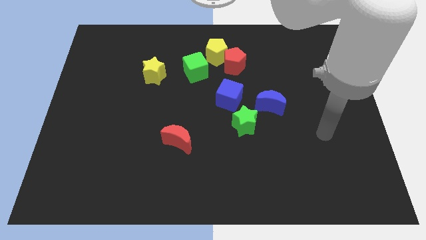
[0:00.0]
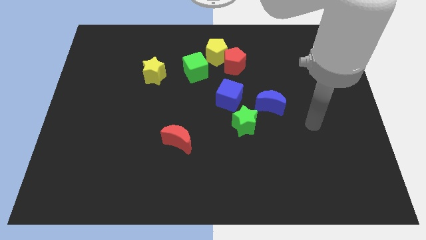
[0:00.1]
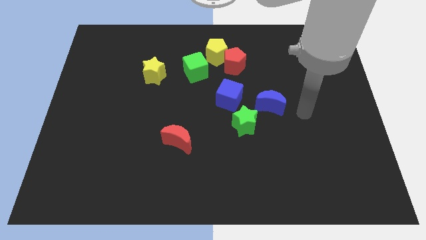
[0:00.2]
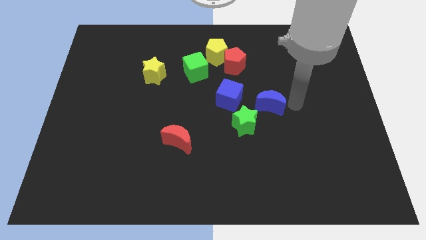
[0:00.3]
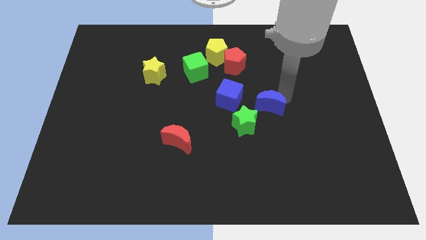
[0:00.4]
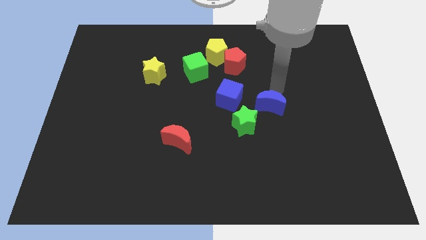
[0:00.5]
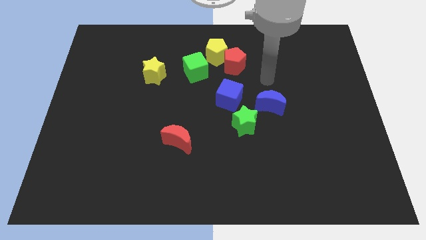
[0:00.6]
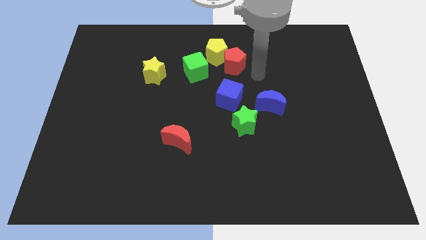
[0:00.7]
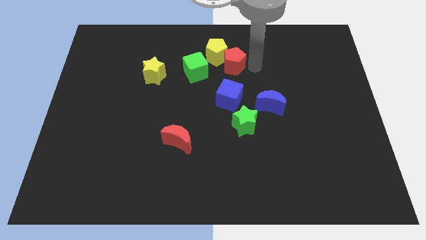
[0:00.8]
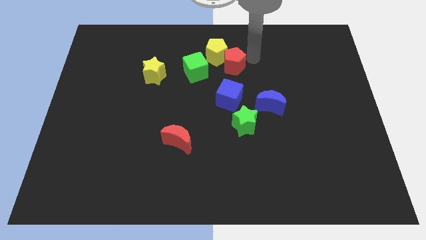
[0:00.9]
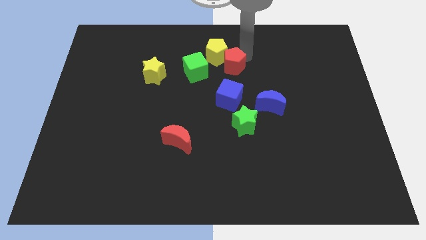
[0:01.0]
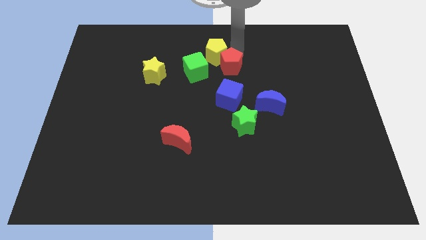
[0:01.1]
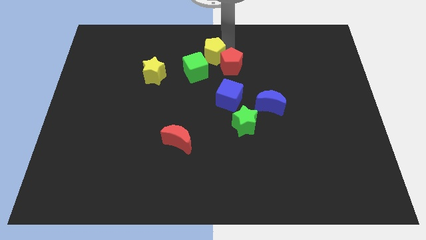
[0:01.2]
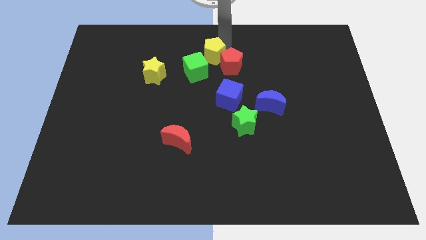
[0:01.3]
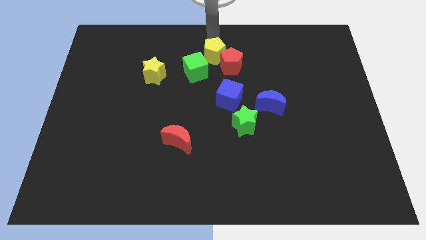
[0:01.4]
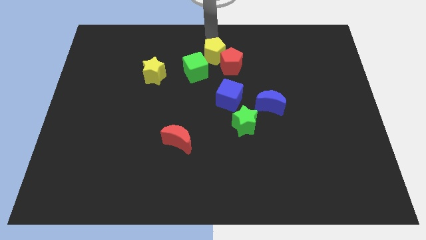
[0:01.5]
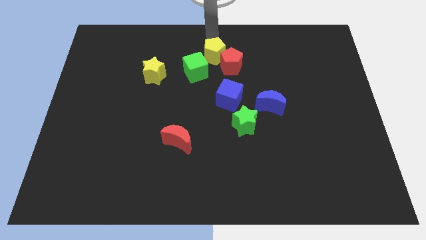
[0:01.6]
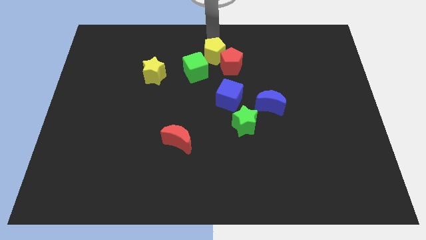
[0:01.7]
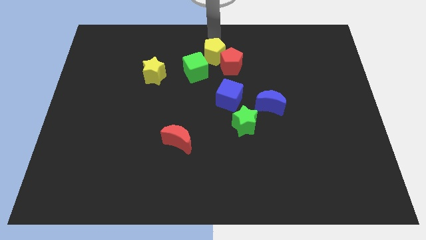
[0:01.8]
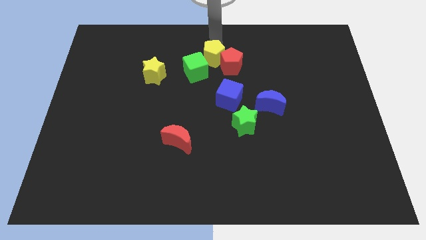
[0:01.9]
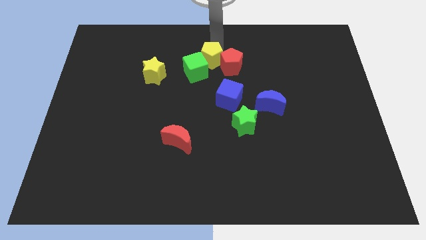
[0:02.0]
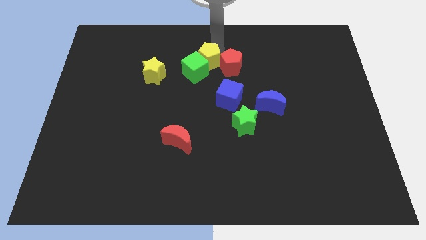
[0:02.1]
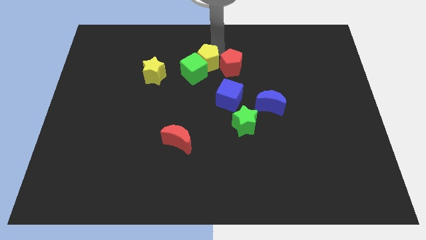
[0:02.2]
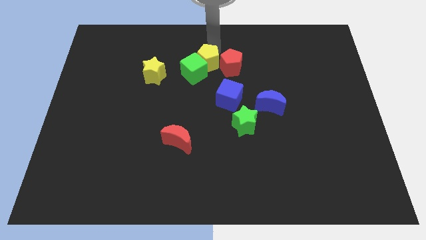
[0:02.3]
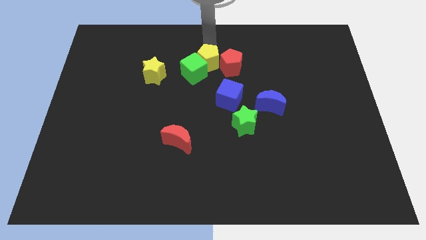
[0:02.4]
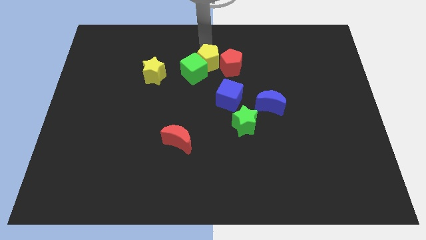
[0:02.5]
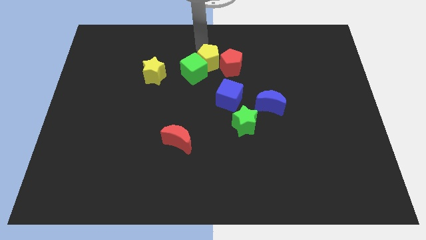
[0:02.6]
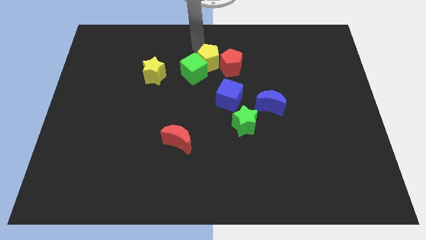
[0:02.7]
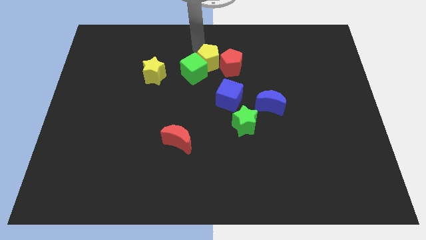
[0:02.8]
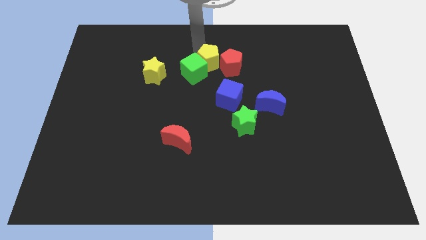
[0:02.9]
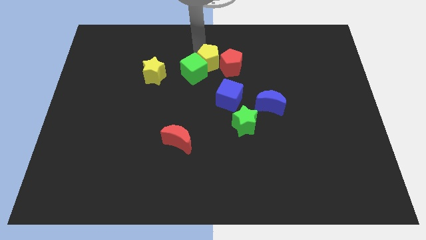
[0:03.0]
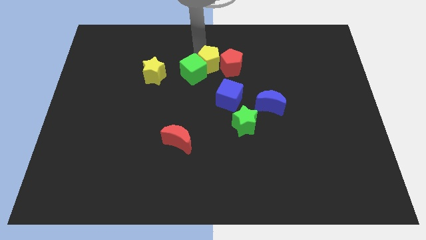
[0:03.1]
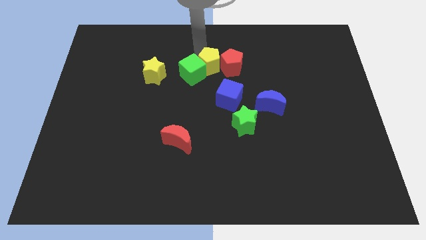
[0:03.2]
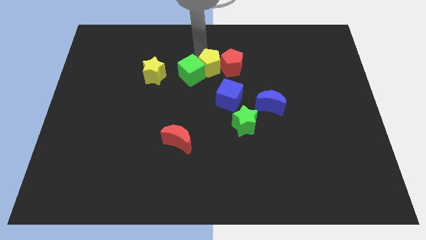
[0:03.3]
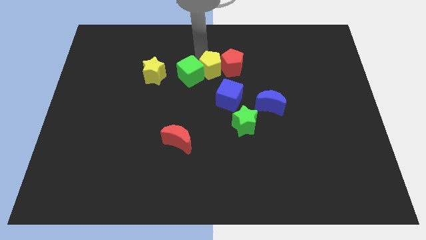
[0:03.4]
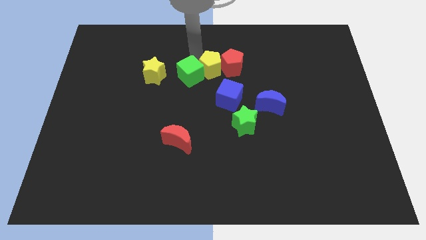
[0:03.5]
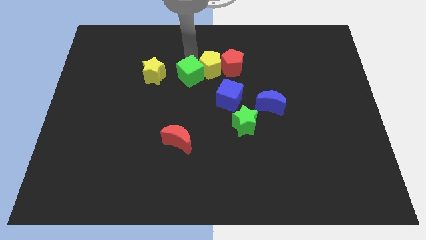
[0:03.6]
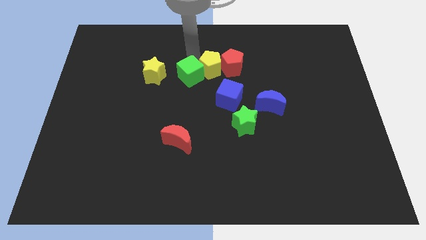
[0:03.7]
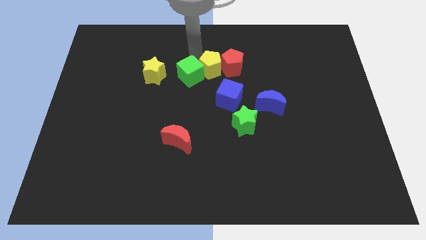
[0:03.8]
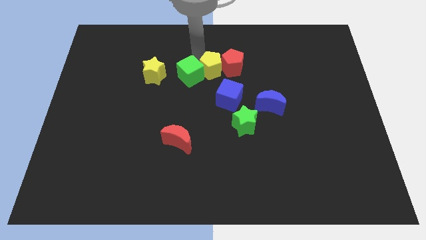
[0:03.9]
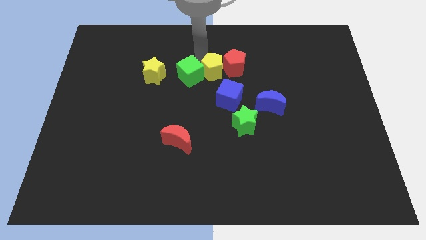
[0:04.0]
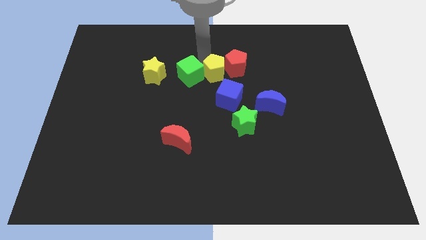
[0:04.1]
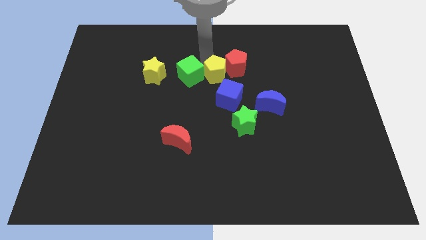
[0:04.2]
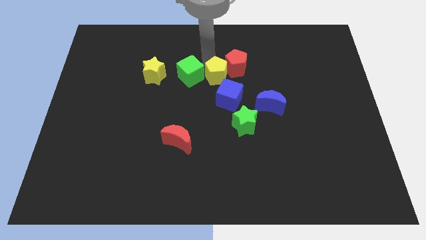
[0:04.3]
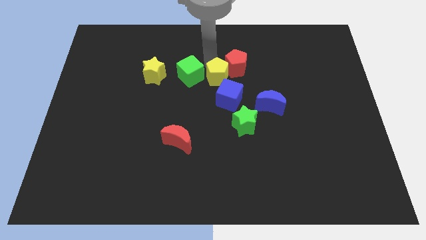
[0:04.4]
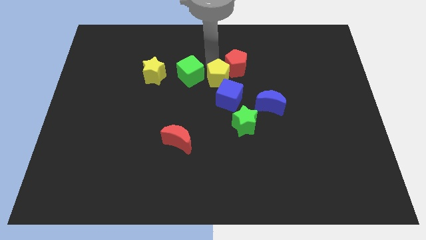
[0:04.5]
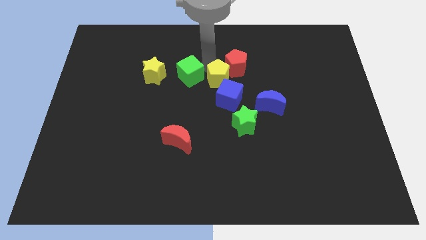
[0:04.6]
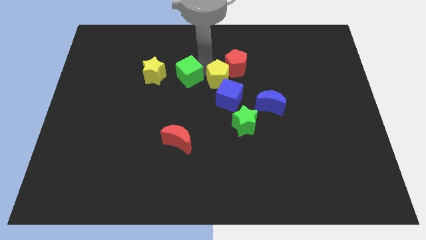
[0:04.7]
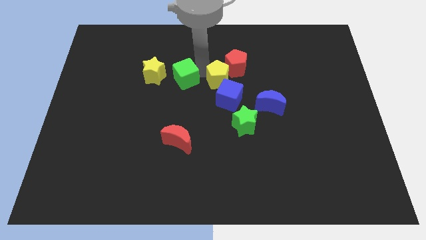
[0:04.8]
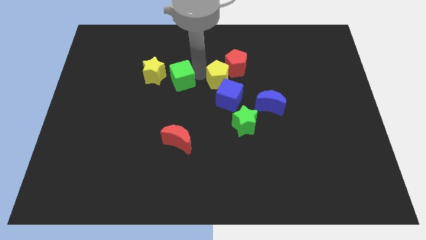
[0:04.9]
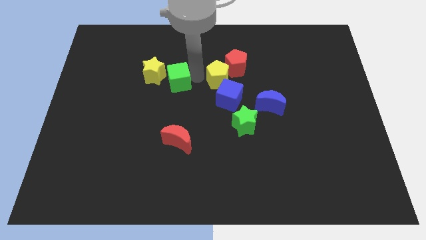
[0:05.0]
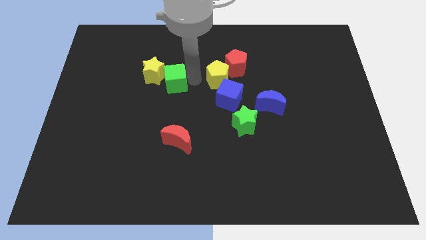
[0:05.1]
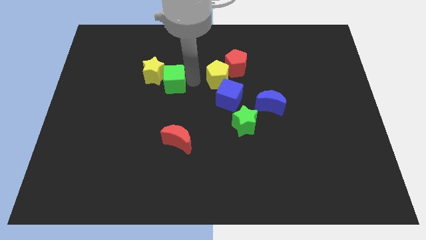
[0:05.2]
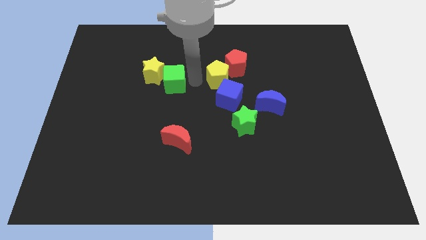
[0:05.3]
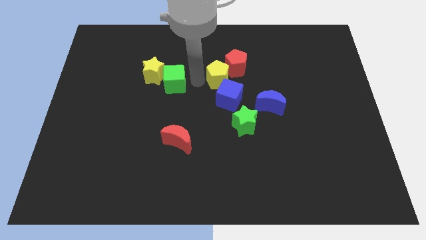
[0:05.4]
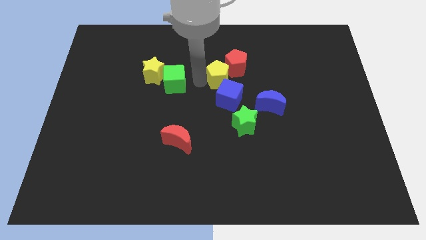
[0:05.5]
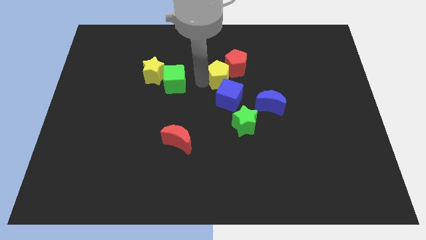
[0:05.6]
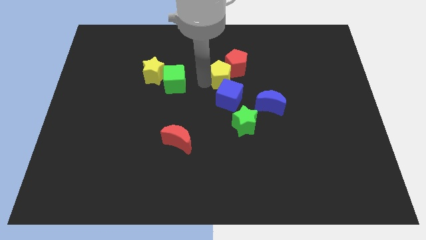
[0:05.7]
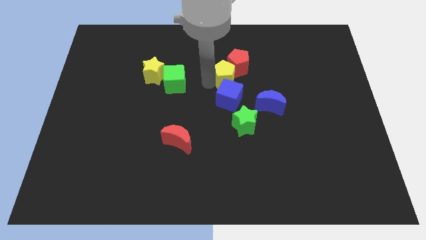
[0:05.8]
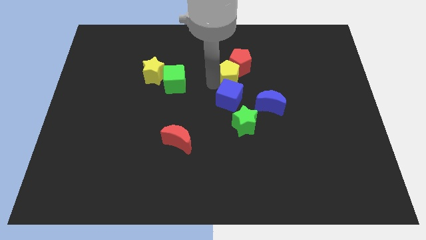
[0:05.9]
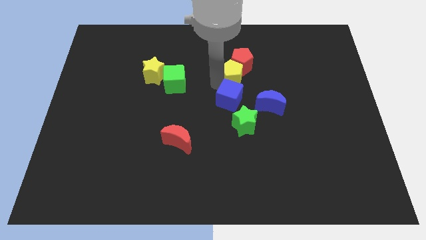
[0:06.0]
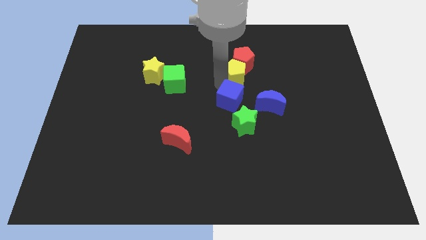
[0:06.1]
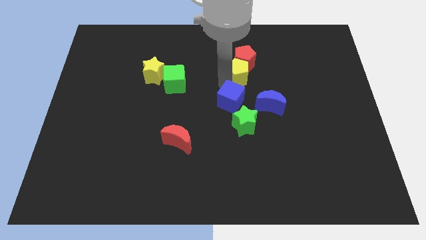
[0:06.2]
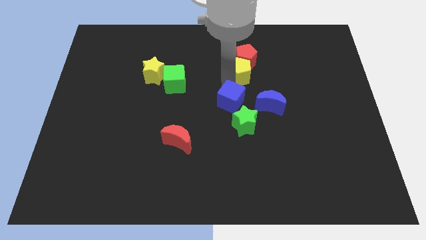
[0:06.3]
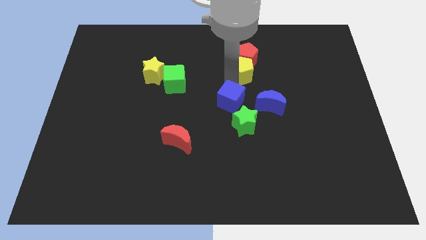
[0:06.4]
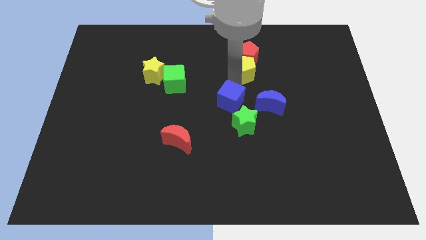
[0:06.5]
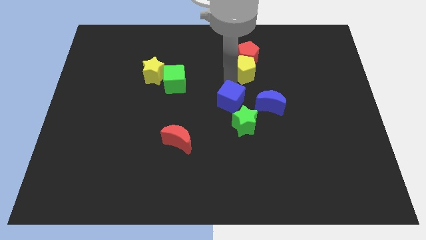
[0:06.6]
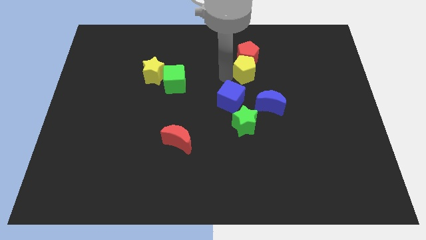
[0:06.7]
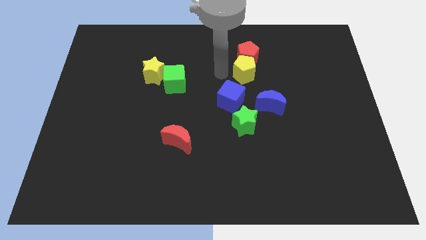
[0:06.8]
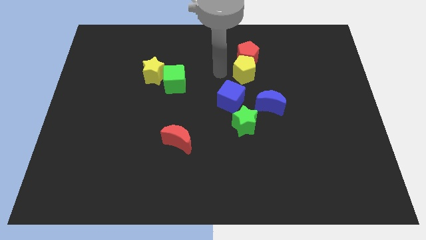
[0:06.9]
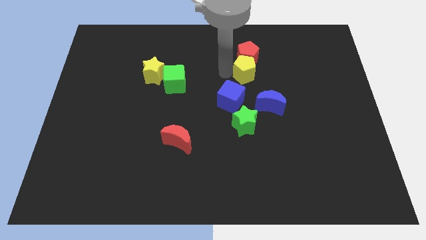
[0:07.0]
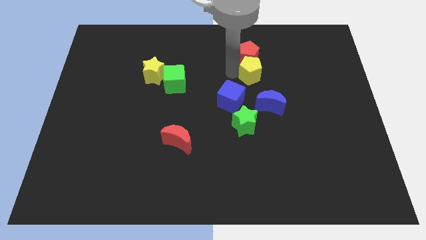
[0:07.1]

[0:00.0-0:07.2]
slide the yellow pentagon to the top side of the blue moon
